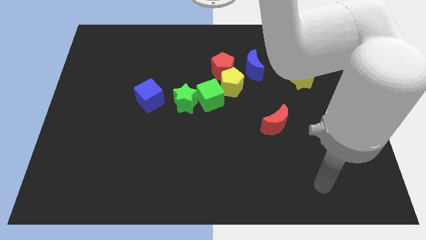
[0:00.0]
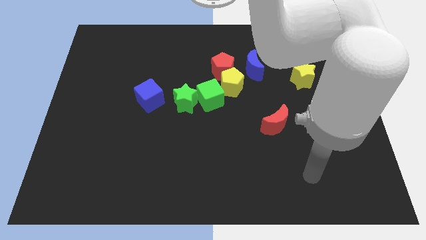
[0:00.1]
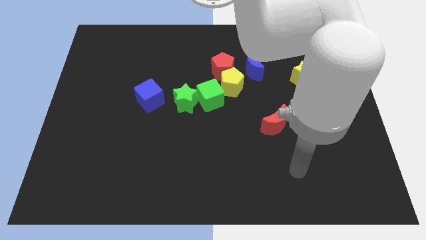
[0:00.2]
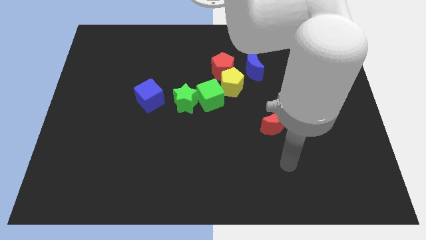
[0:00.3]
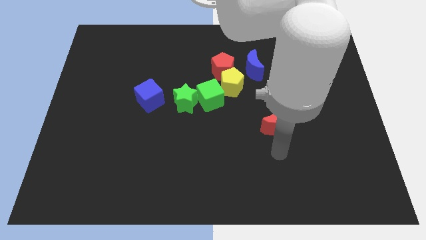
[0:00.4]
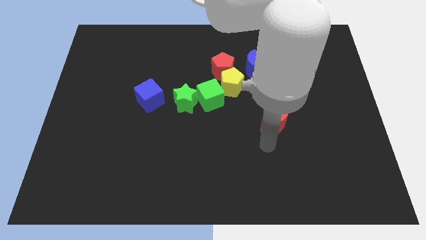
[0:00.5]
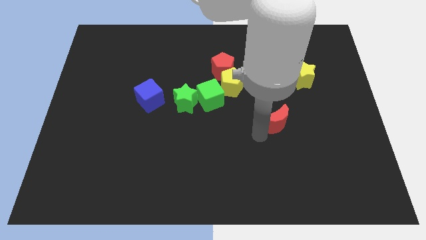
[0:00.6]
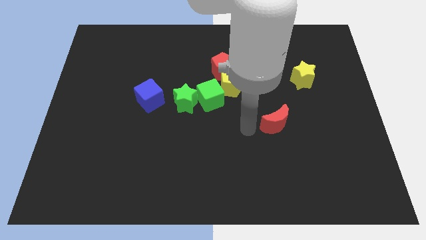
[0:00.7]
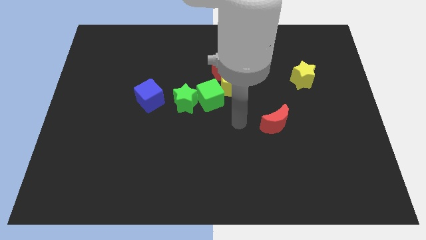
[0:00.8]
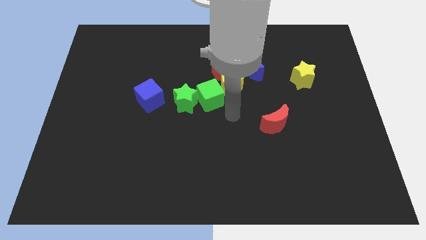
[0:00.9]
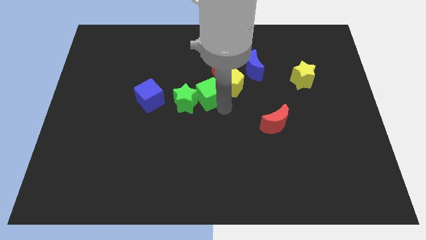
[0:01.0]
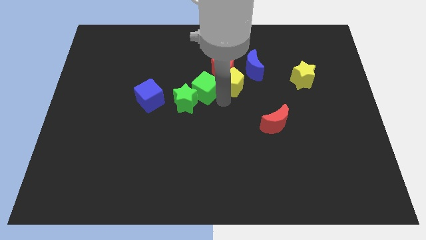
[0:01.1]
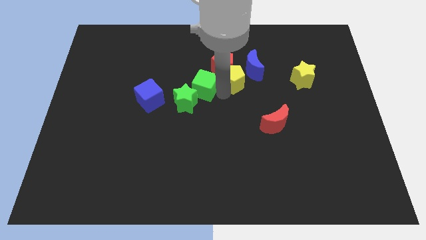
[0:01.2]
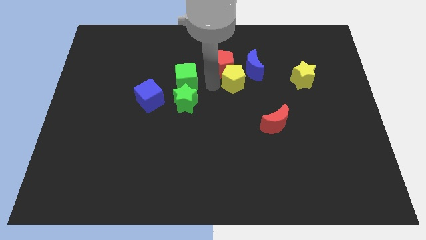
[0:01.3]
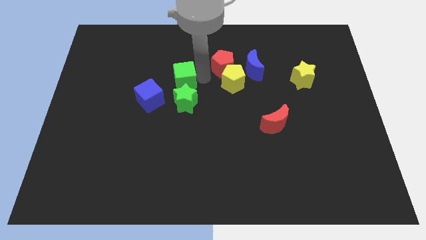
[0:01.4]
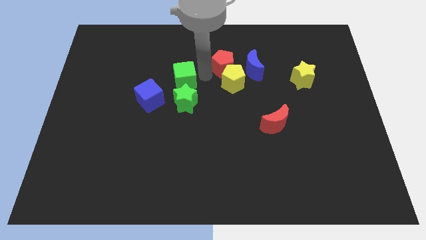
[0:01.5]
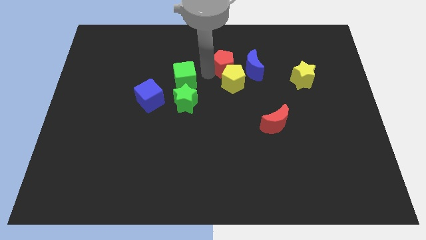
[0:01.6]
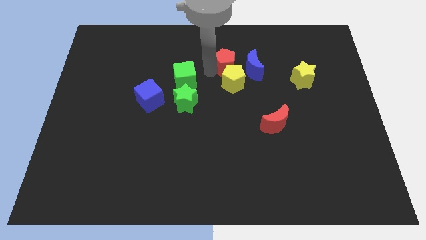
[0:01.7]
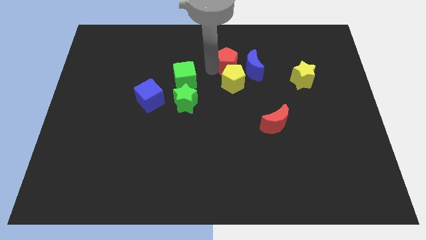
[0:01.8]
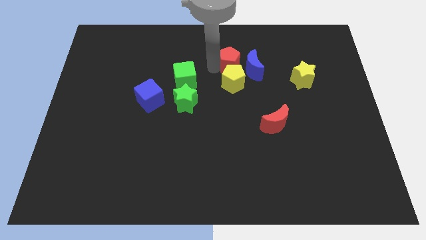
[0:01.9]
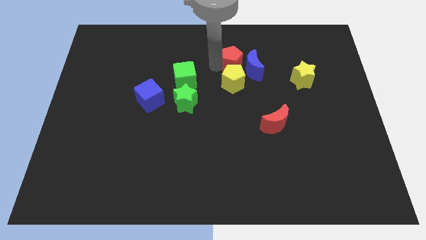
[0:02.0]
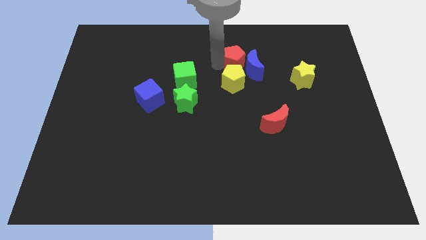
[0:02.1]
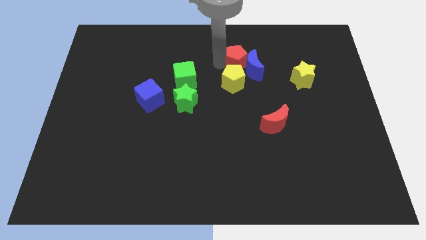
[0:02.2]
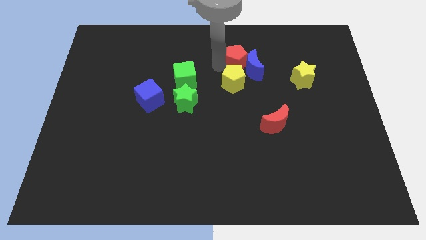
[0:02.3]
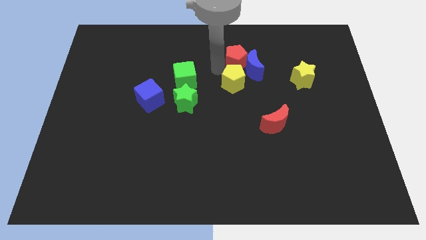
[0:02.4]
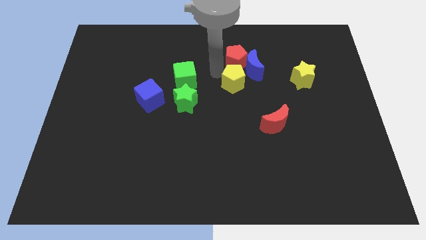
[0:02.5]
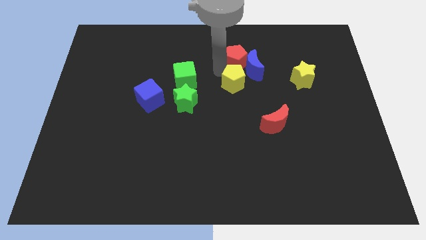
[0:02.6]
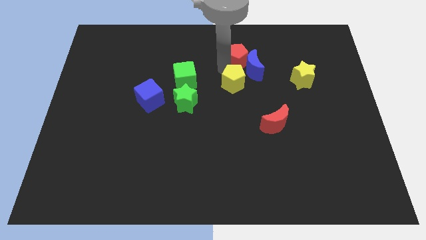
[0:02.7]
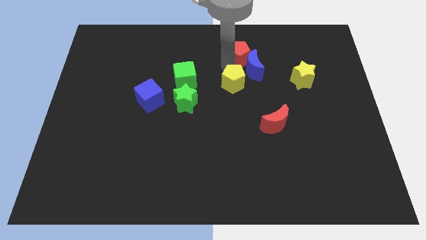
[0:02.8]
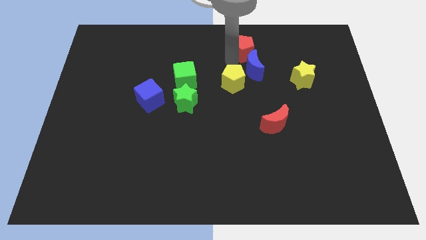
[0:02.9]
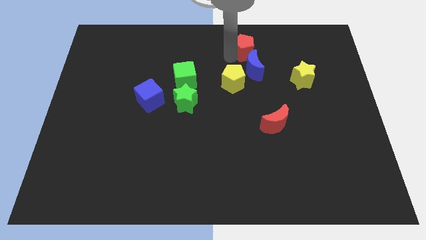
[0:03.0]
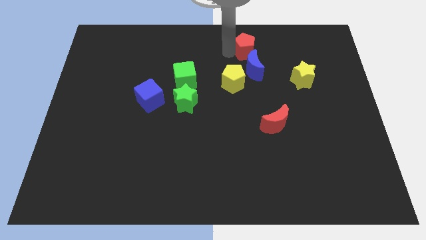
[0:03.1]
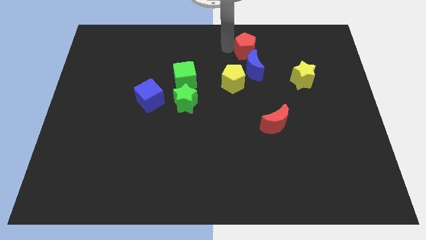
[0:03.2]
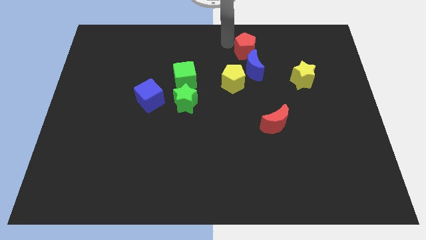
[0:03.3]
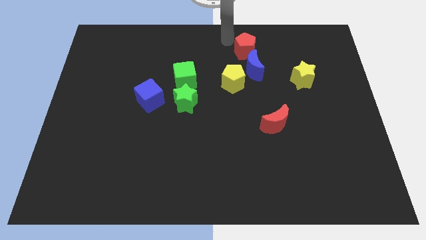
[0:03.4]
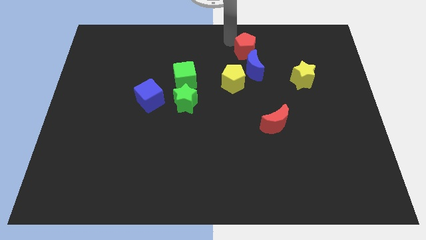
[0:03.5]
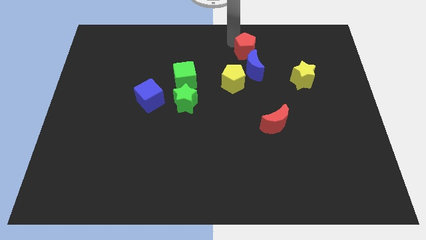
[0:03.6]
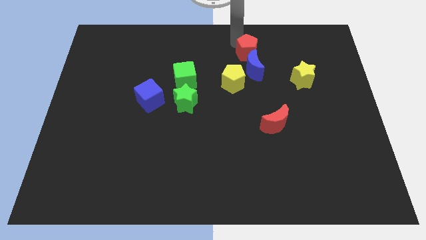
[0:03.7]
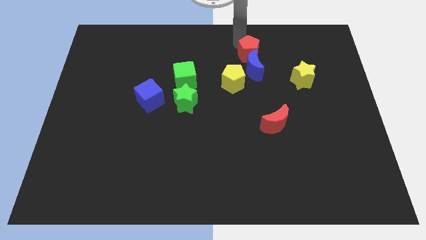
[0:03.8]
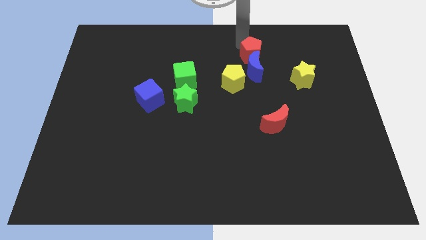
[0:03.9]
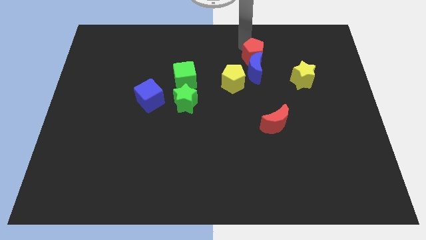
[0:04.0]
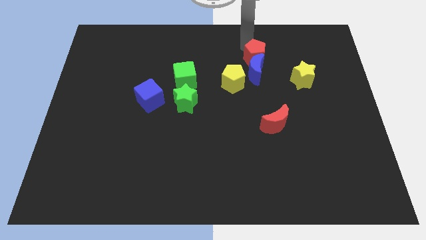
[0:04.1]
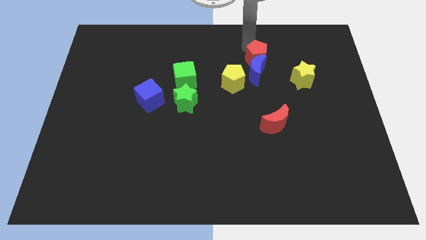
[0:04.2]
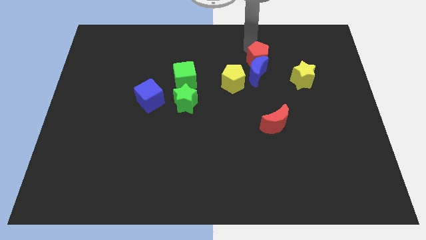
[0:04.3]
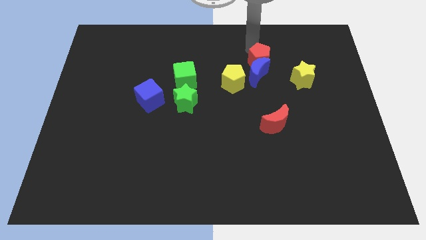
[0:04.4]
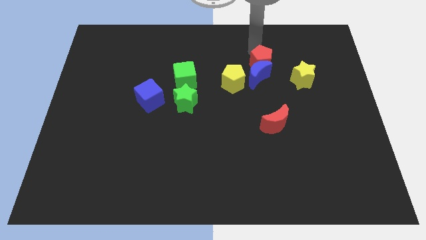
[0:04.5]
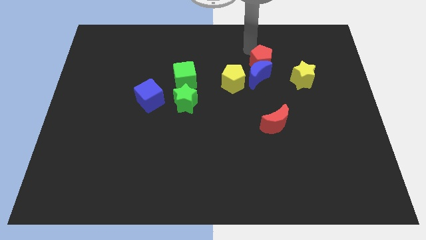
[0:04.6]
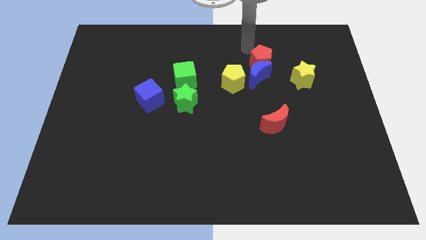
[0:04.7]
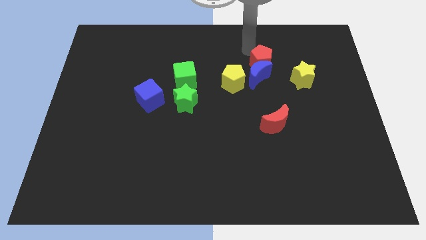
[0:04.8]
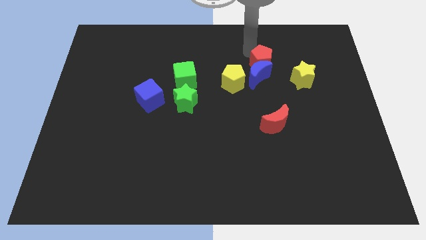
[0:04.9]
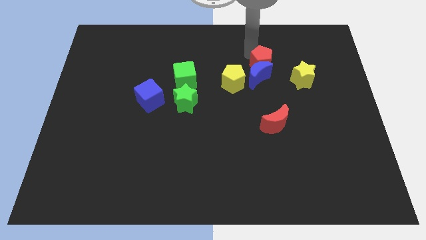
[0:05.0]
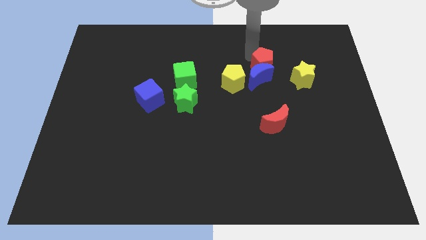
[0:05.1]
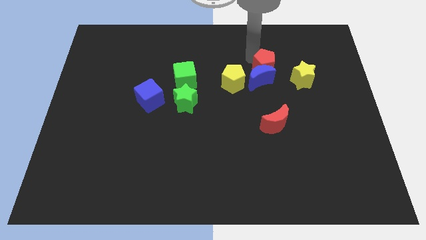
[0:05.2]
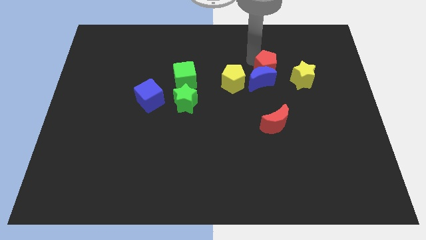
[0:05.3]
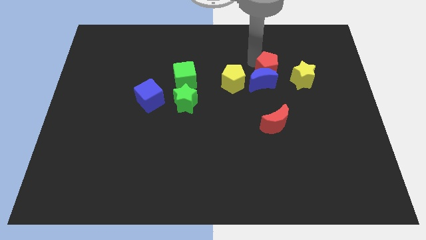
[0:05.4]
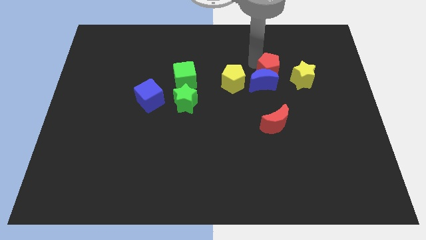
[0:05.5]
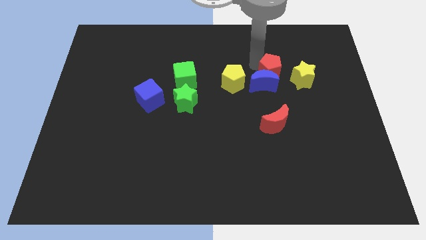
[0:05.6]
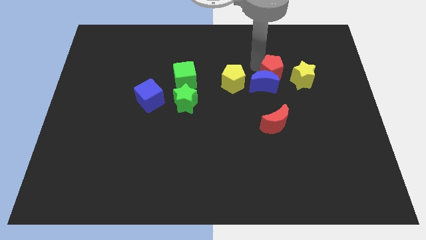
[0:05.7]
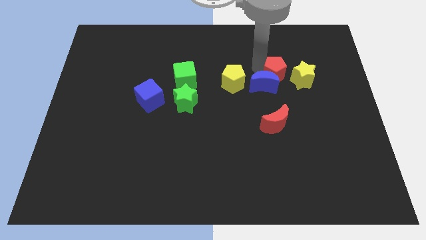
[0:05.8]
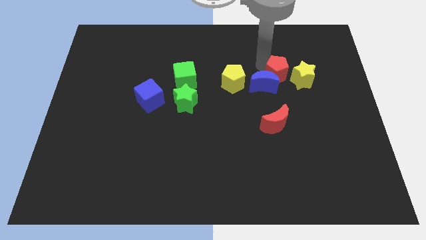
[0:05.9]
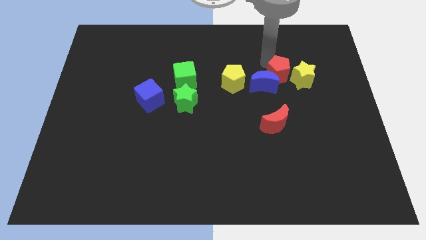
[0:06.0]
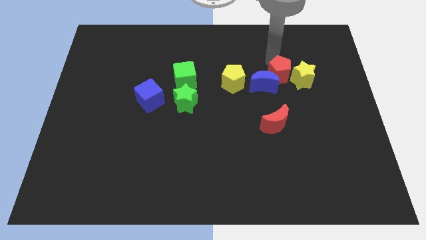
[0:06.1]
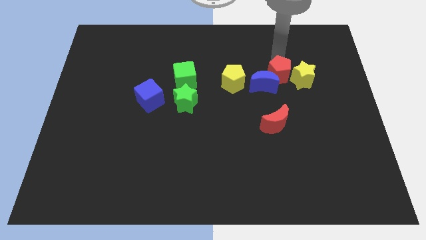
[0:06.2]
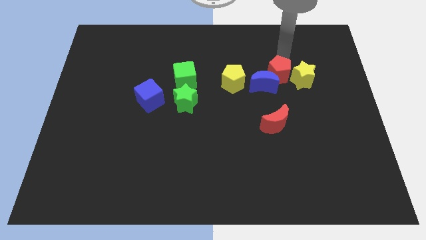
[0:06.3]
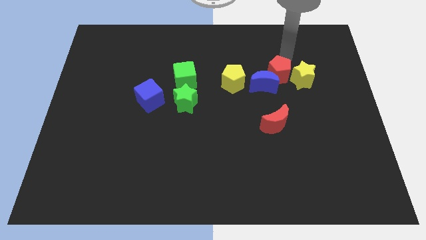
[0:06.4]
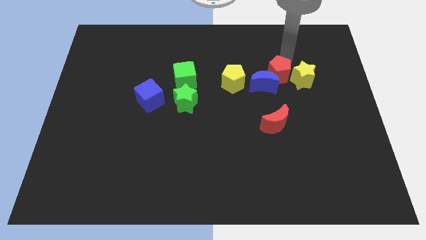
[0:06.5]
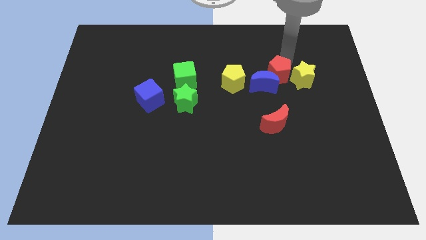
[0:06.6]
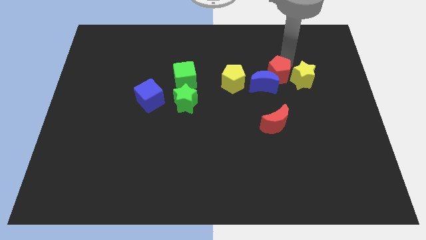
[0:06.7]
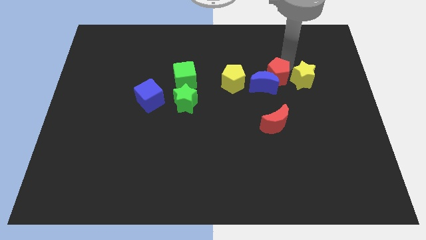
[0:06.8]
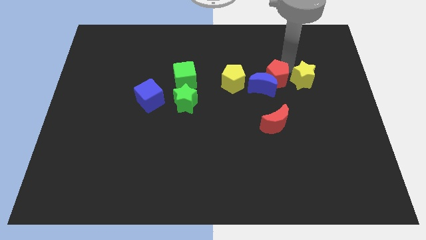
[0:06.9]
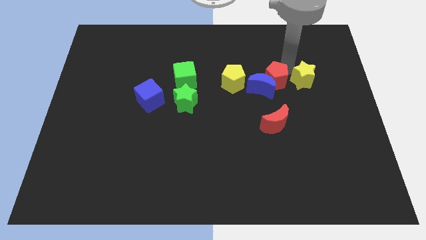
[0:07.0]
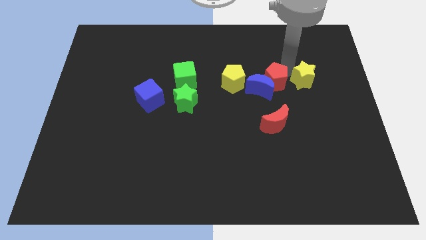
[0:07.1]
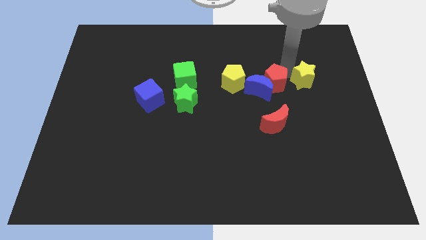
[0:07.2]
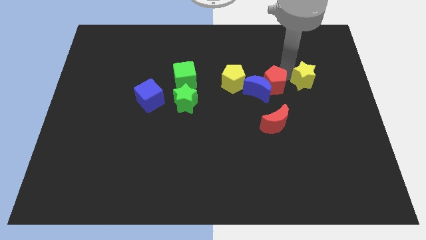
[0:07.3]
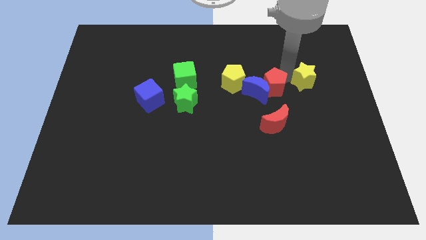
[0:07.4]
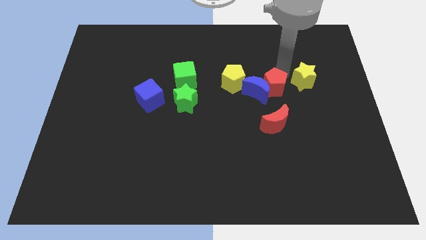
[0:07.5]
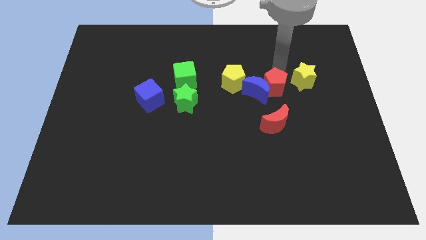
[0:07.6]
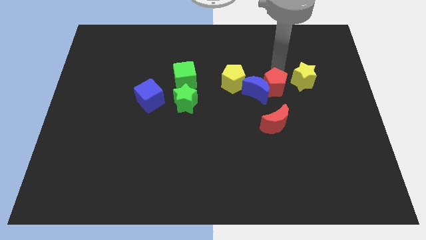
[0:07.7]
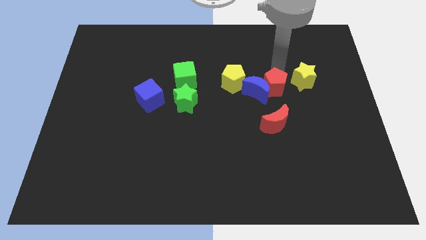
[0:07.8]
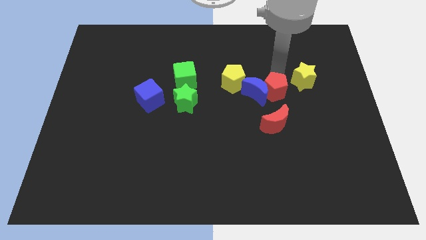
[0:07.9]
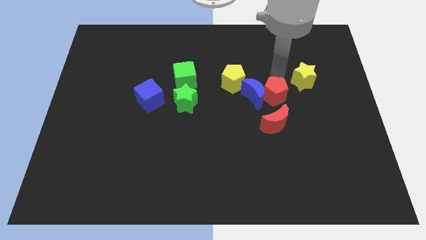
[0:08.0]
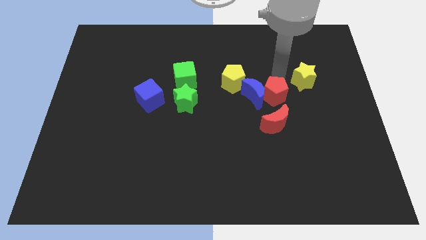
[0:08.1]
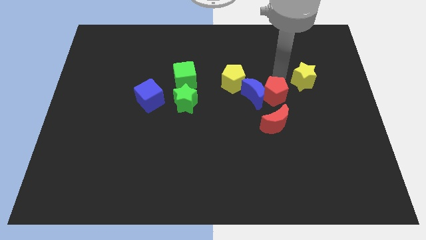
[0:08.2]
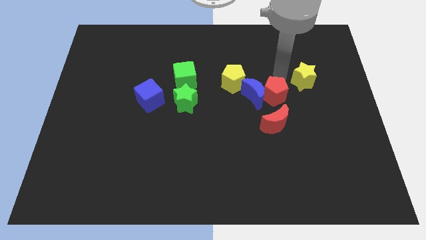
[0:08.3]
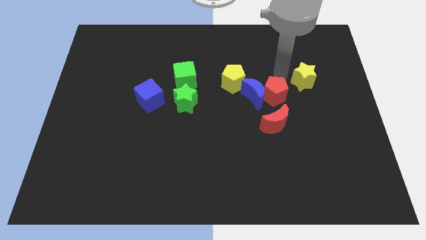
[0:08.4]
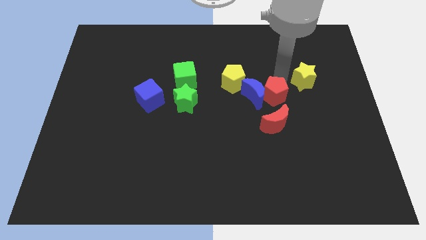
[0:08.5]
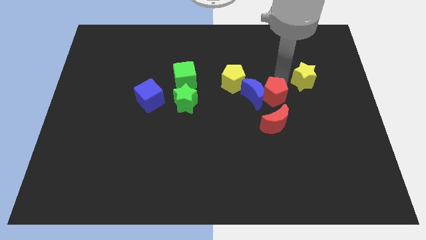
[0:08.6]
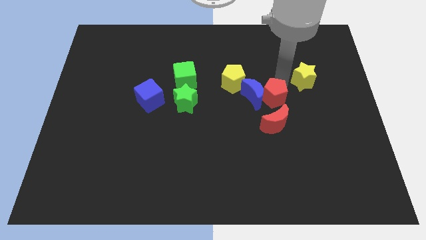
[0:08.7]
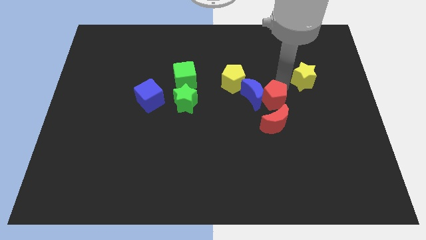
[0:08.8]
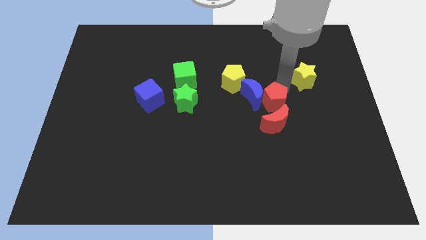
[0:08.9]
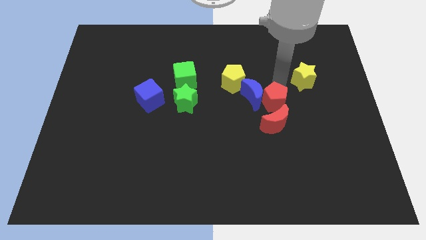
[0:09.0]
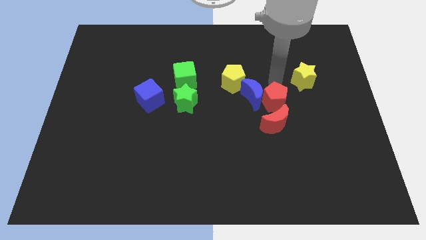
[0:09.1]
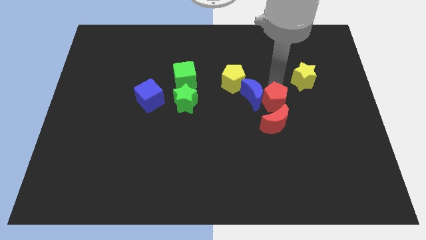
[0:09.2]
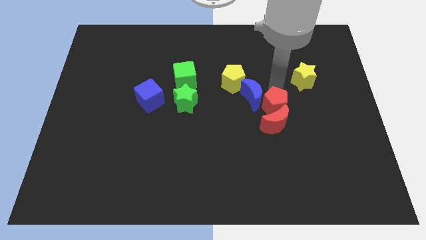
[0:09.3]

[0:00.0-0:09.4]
push the red pentagon towards the red moon
